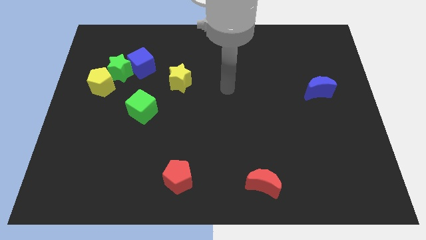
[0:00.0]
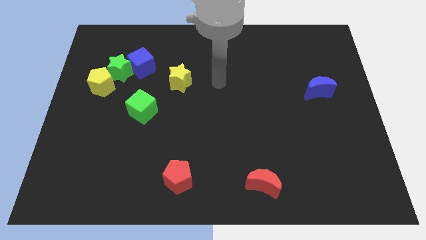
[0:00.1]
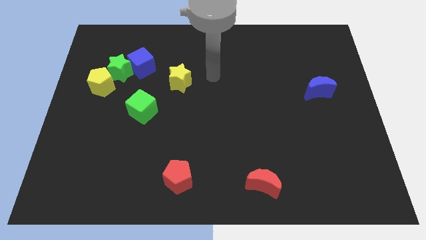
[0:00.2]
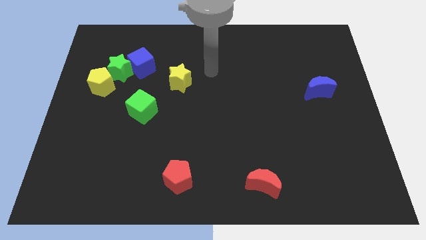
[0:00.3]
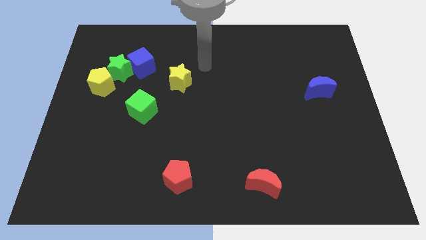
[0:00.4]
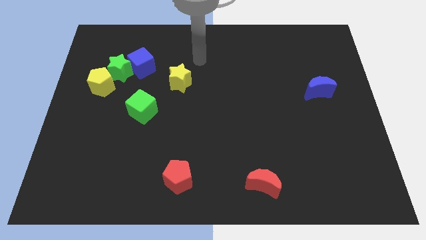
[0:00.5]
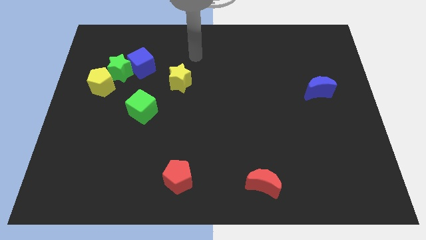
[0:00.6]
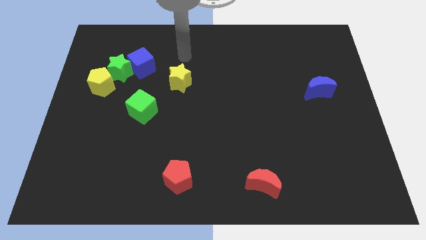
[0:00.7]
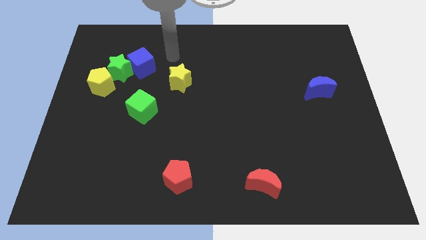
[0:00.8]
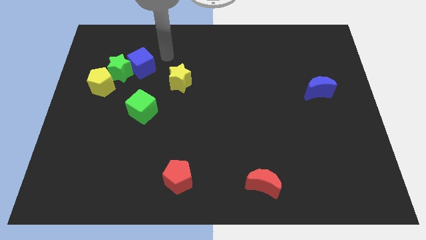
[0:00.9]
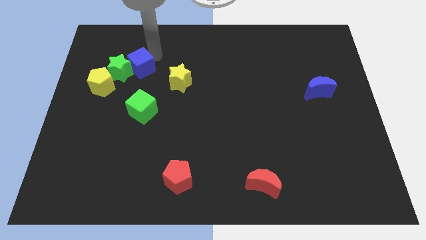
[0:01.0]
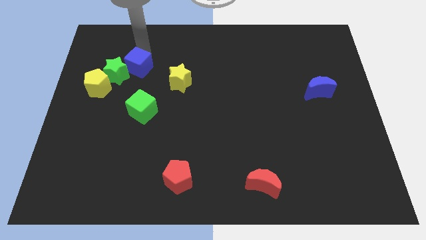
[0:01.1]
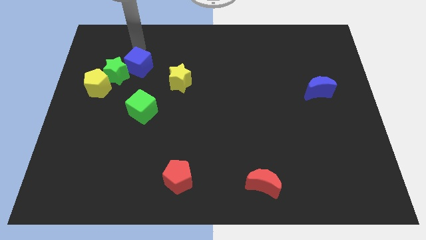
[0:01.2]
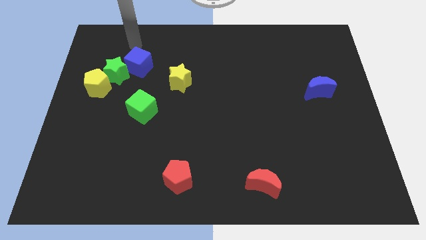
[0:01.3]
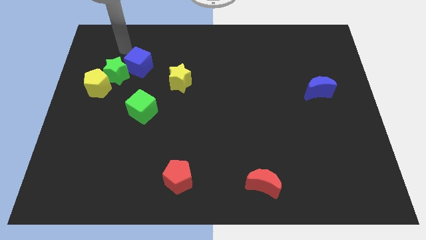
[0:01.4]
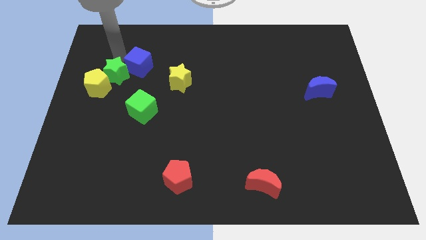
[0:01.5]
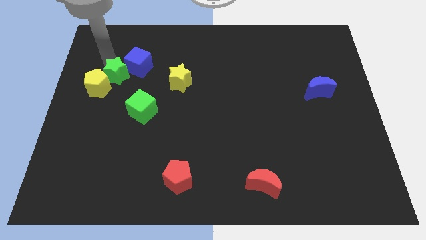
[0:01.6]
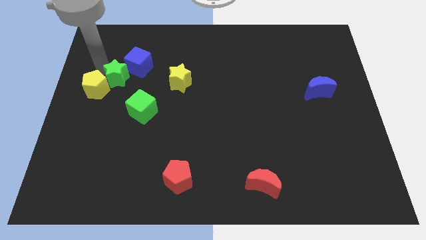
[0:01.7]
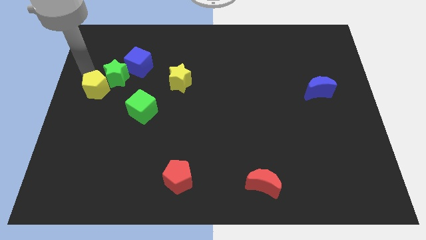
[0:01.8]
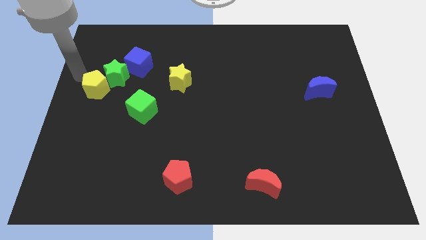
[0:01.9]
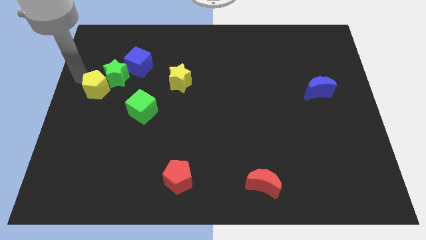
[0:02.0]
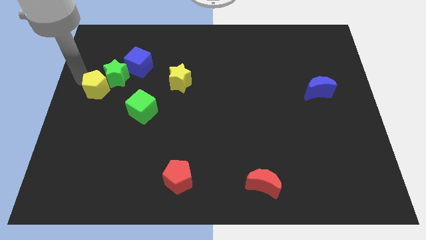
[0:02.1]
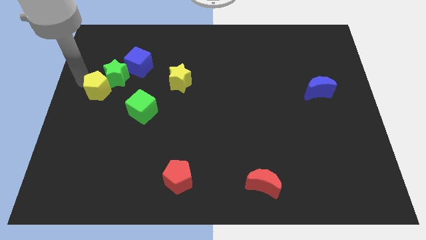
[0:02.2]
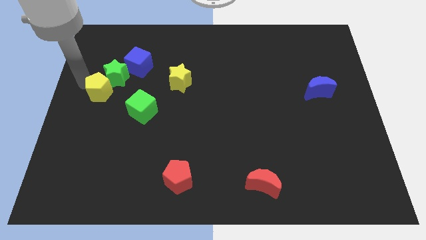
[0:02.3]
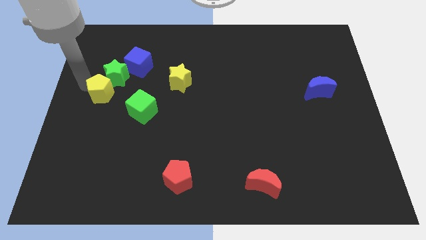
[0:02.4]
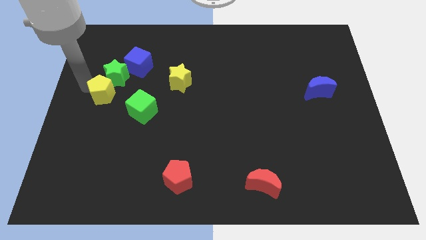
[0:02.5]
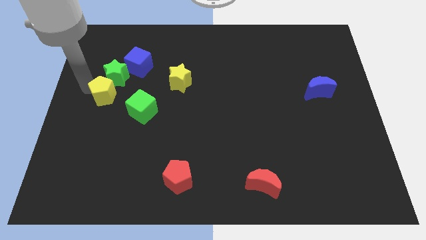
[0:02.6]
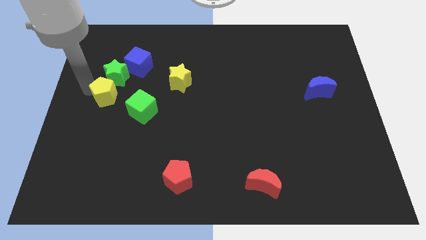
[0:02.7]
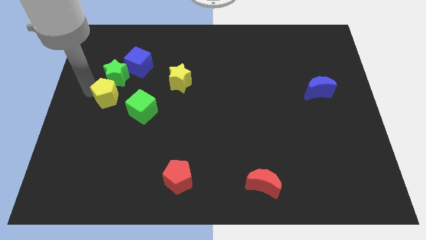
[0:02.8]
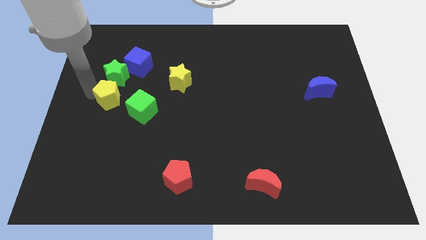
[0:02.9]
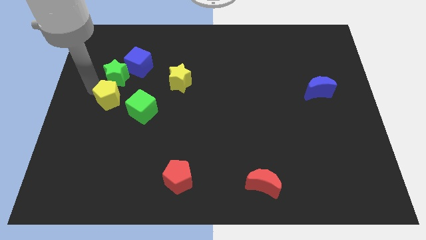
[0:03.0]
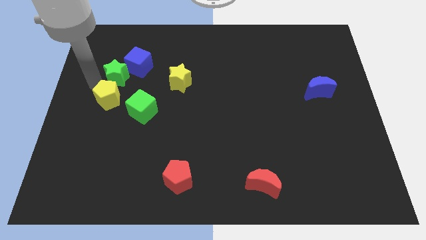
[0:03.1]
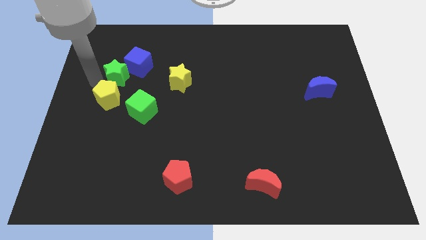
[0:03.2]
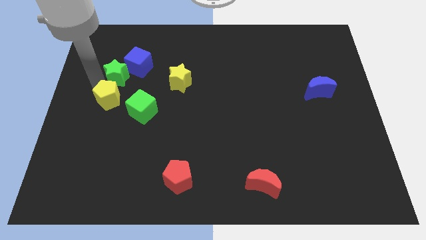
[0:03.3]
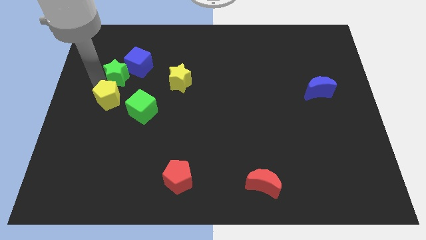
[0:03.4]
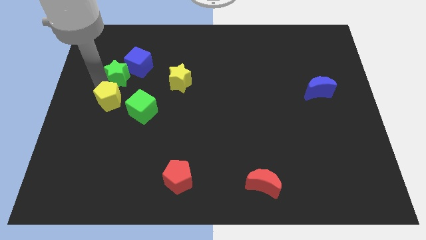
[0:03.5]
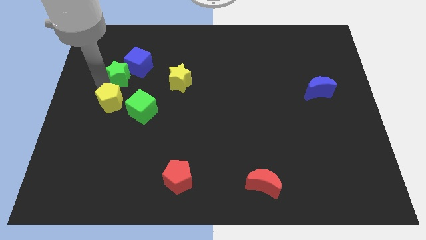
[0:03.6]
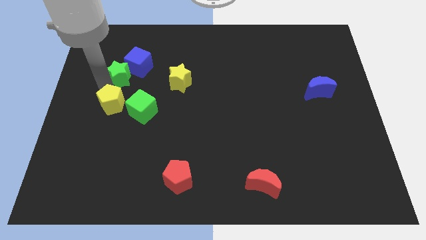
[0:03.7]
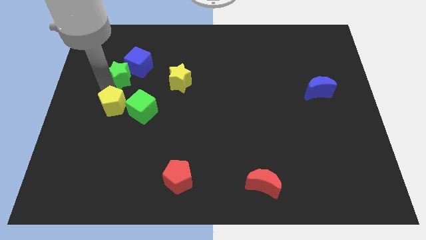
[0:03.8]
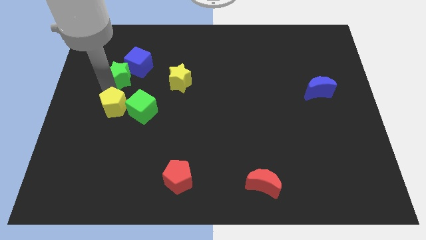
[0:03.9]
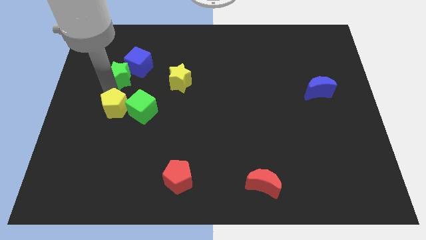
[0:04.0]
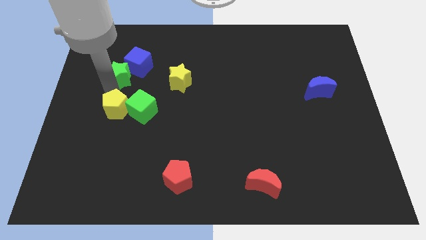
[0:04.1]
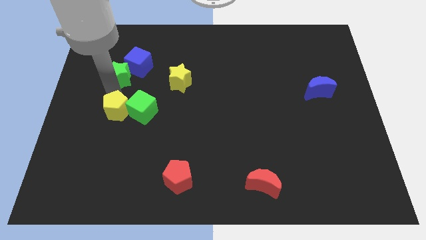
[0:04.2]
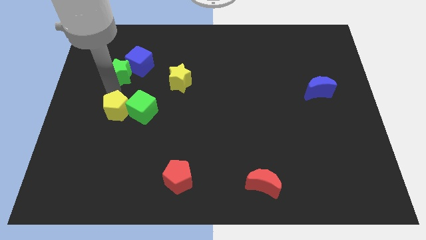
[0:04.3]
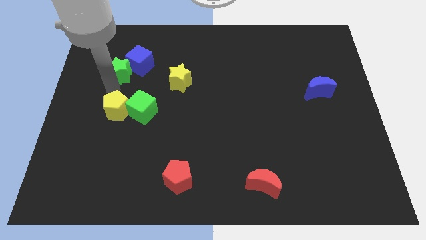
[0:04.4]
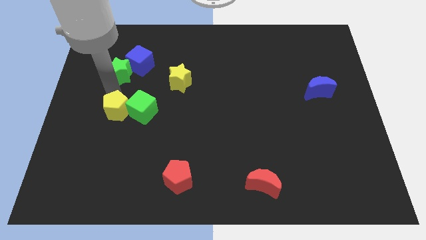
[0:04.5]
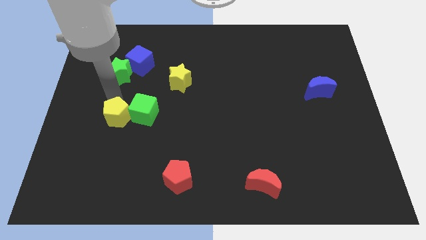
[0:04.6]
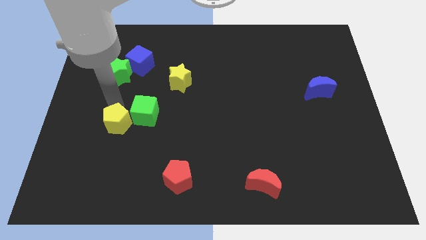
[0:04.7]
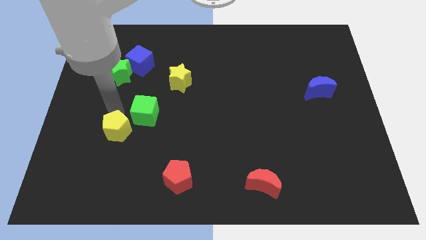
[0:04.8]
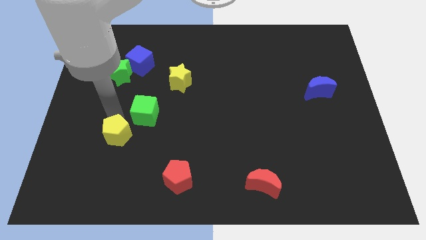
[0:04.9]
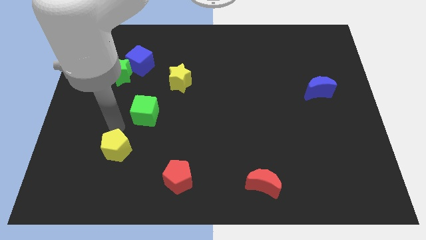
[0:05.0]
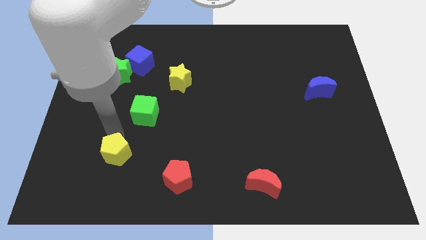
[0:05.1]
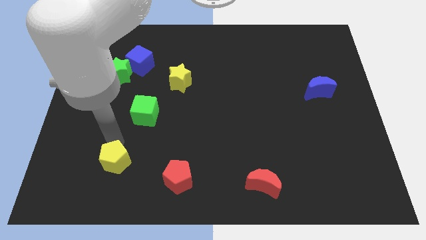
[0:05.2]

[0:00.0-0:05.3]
move the yellow pentagon left of the red pentagon

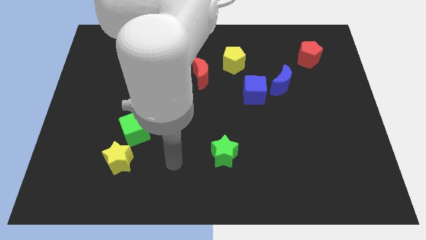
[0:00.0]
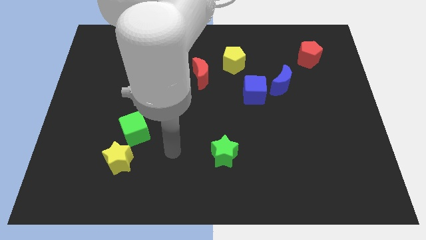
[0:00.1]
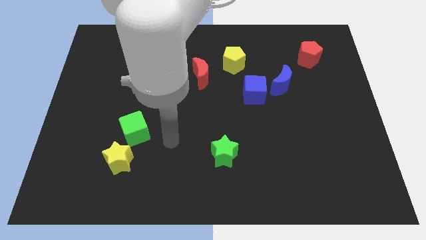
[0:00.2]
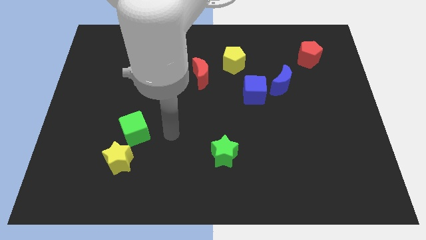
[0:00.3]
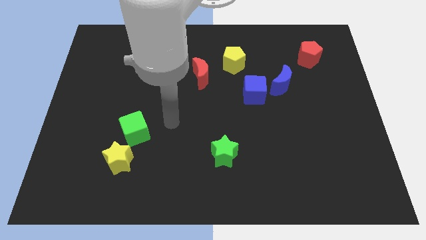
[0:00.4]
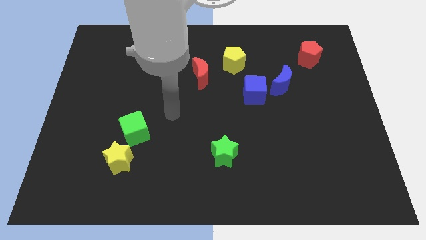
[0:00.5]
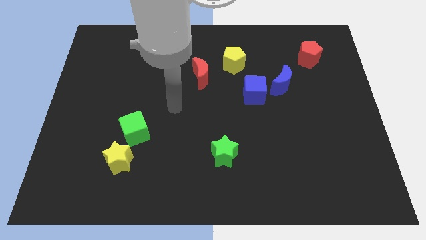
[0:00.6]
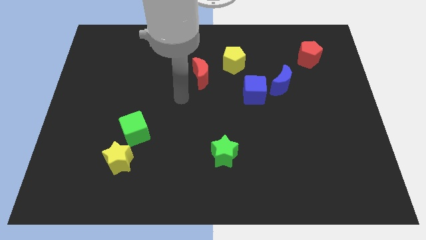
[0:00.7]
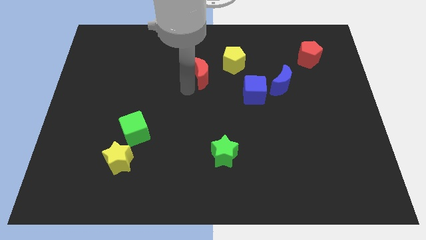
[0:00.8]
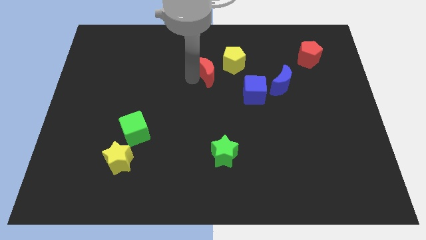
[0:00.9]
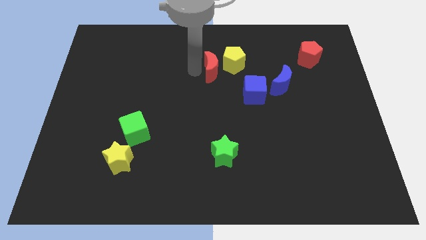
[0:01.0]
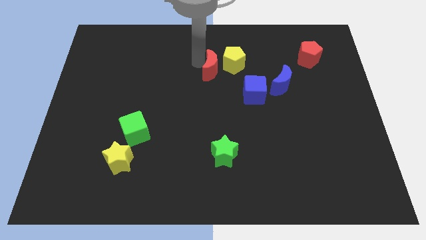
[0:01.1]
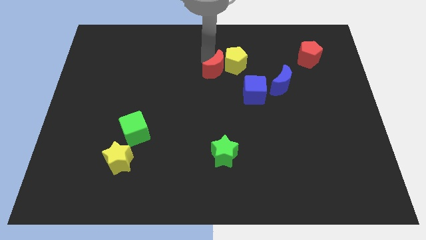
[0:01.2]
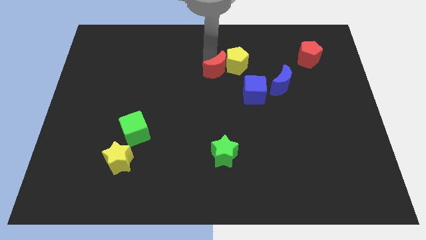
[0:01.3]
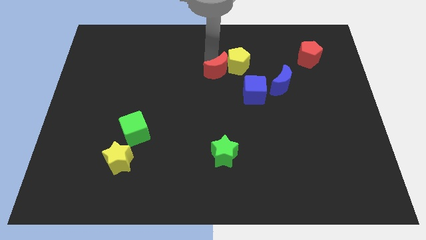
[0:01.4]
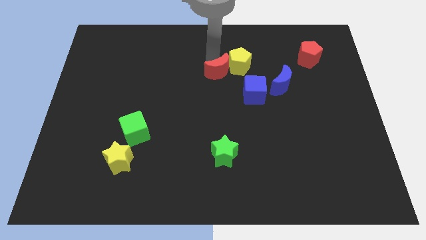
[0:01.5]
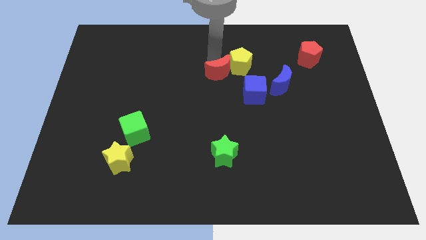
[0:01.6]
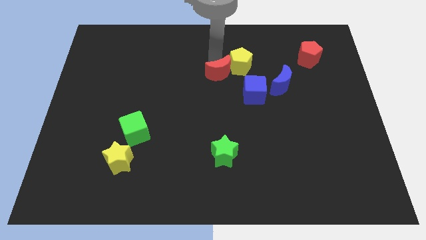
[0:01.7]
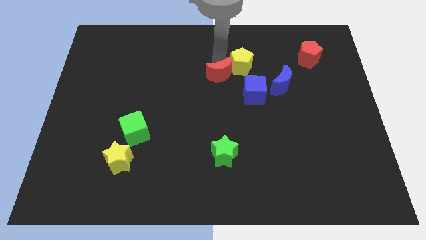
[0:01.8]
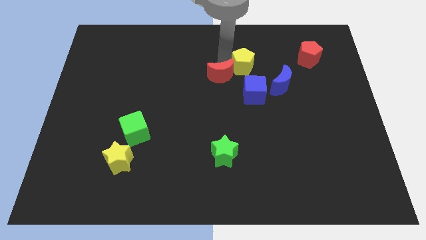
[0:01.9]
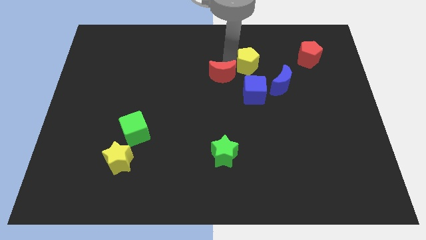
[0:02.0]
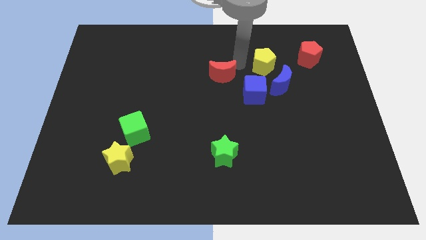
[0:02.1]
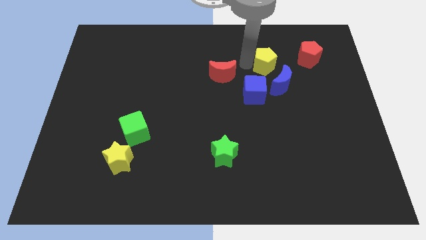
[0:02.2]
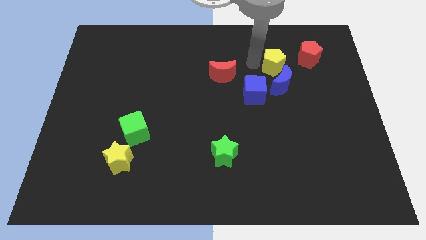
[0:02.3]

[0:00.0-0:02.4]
push the yellow pentagon to the bottom left of the red pentagon
